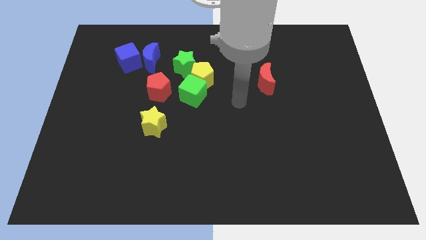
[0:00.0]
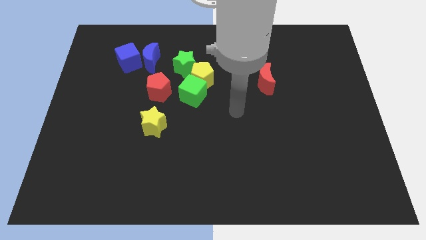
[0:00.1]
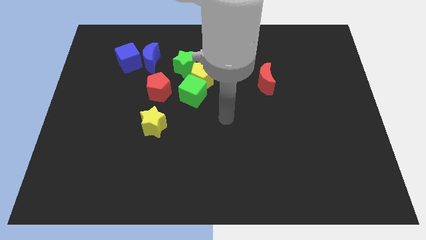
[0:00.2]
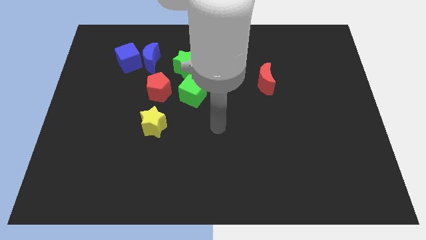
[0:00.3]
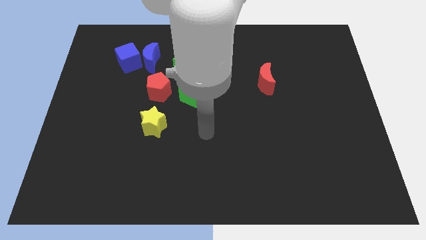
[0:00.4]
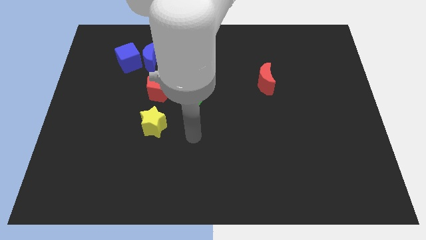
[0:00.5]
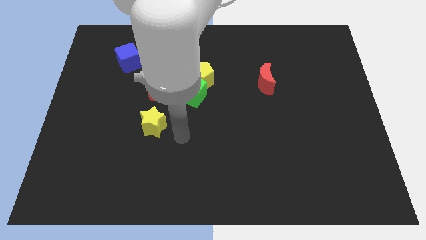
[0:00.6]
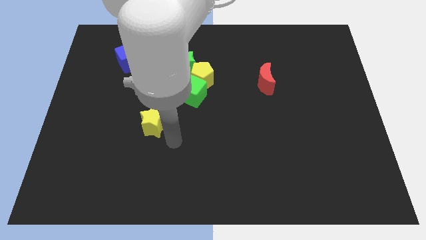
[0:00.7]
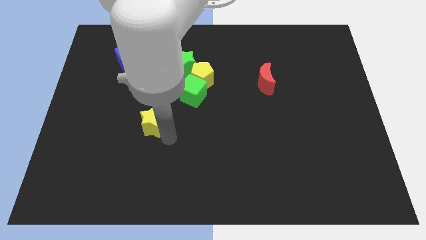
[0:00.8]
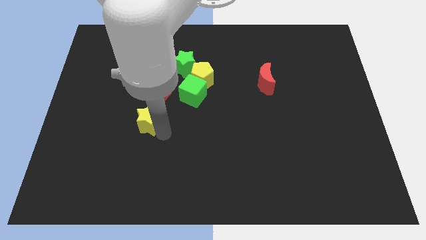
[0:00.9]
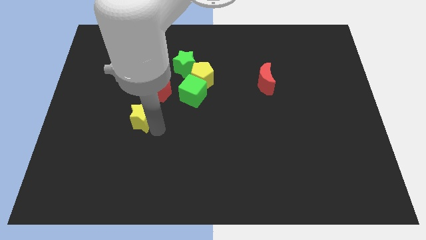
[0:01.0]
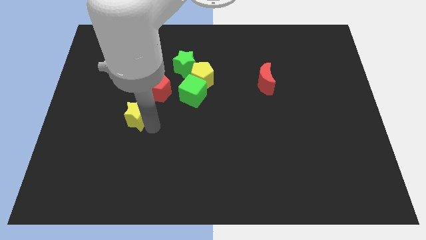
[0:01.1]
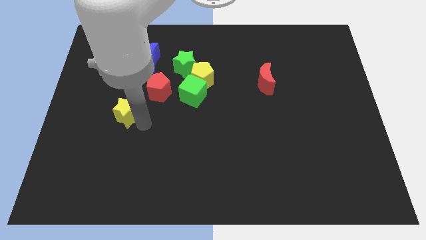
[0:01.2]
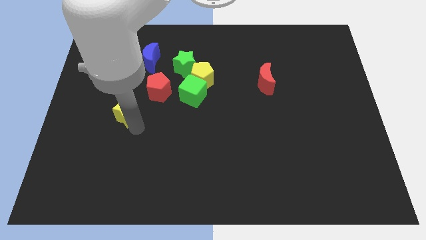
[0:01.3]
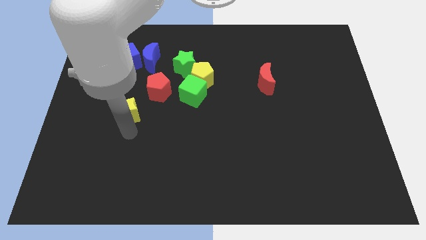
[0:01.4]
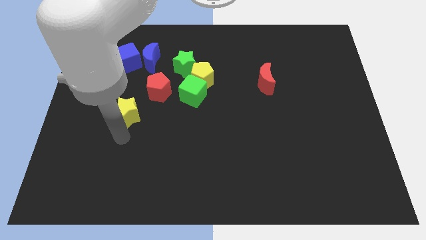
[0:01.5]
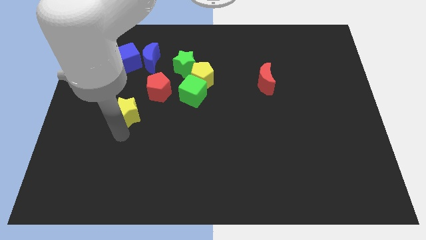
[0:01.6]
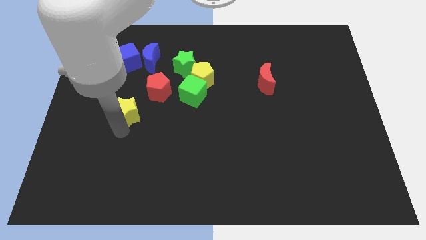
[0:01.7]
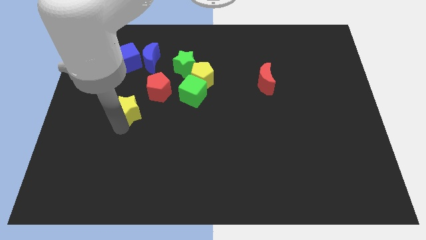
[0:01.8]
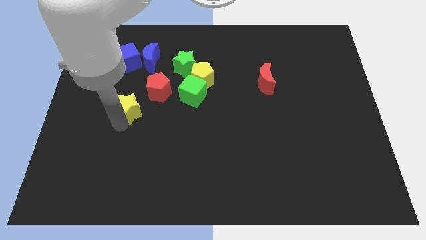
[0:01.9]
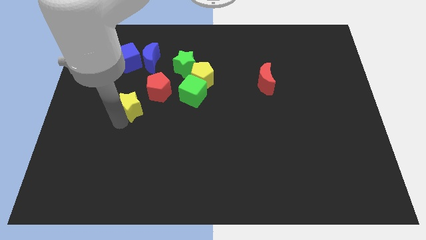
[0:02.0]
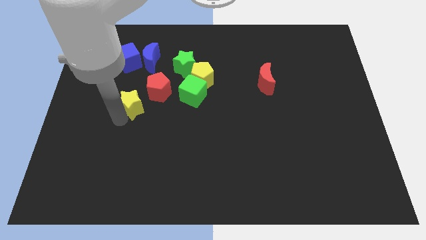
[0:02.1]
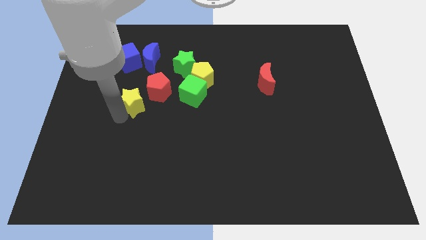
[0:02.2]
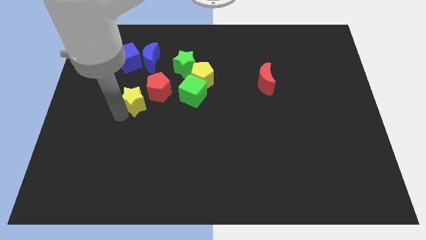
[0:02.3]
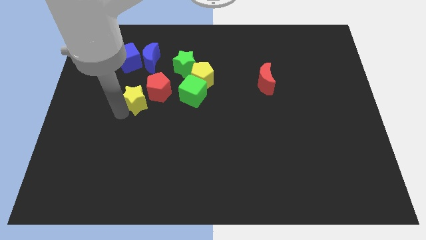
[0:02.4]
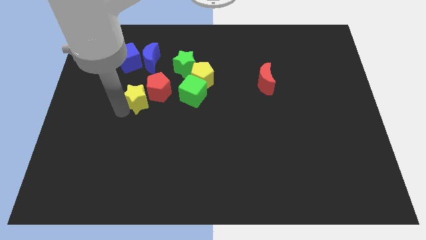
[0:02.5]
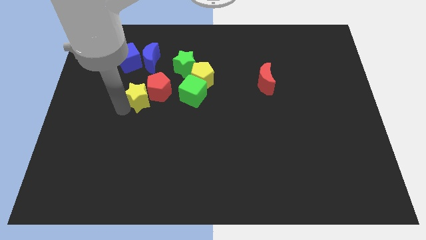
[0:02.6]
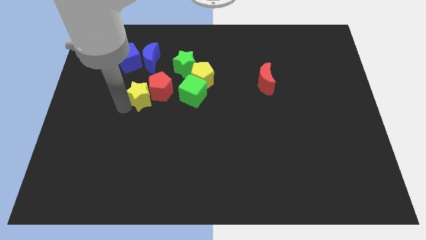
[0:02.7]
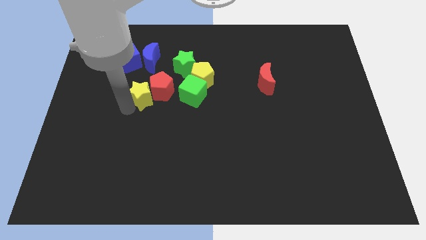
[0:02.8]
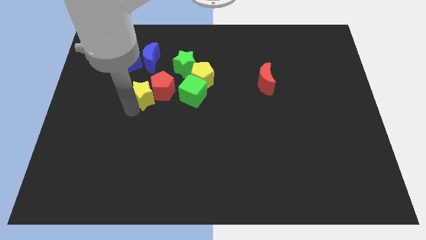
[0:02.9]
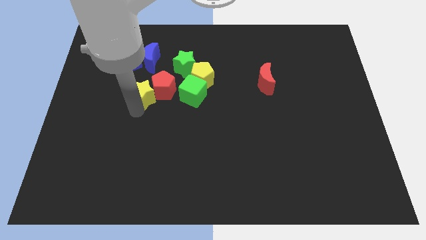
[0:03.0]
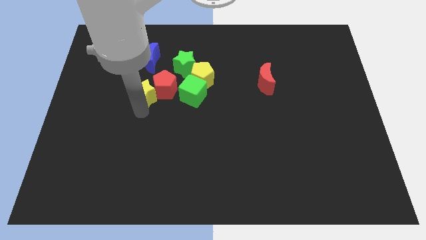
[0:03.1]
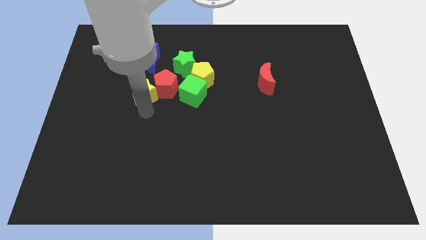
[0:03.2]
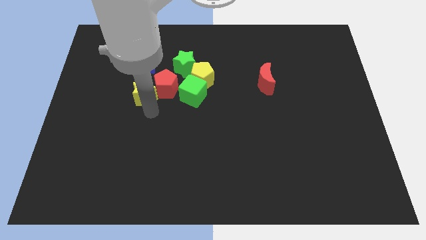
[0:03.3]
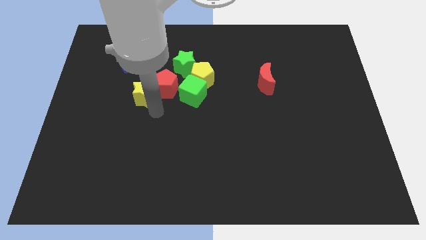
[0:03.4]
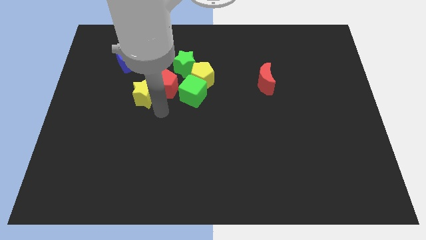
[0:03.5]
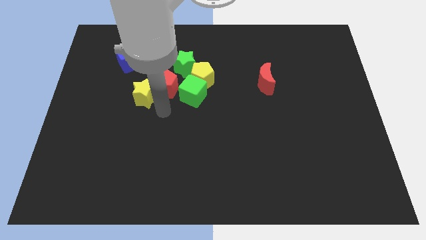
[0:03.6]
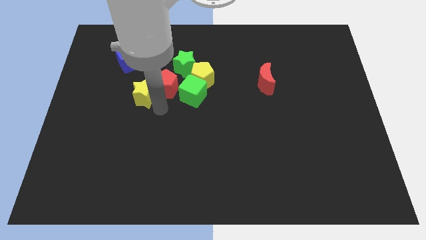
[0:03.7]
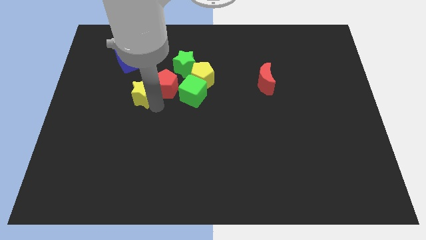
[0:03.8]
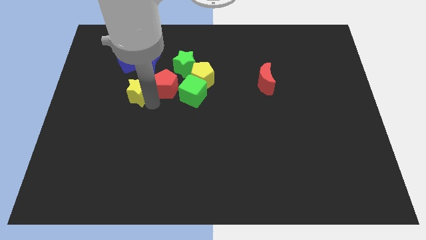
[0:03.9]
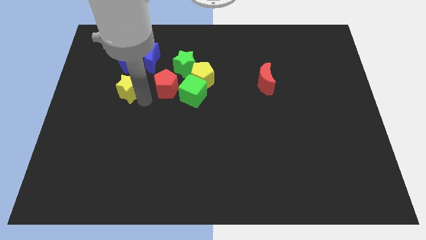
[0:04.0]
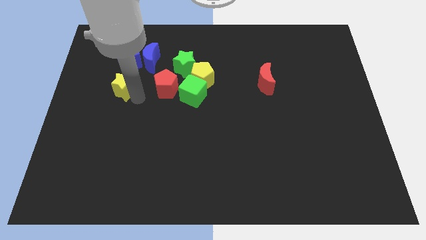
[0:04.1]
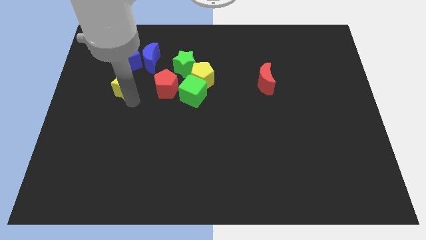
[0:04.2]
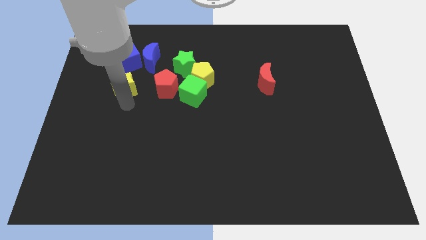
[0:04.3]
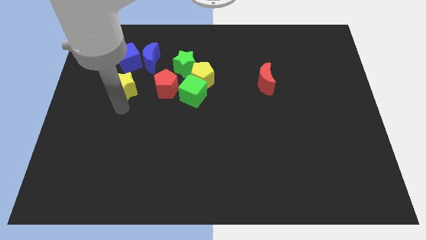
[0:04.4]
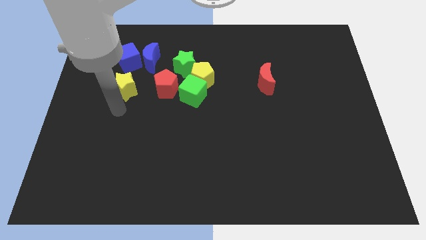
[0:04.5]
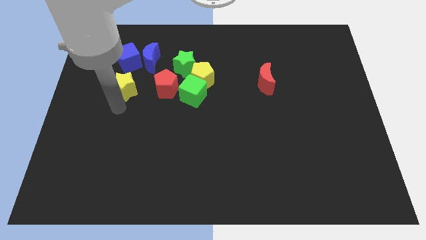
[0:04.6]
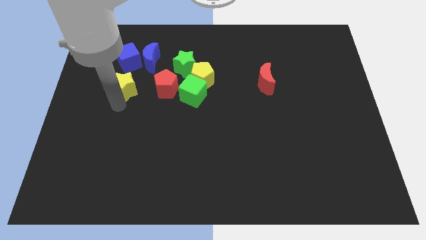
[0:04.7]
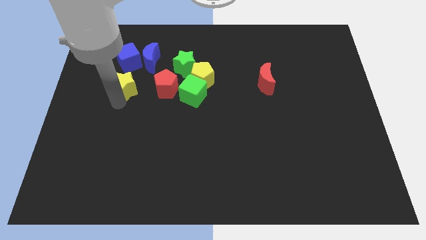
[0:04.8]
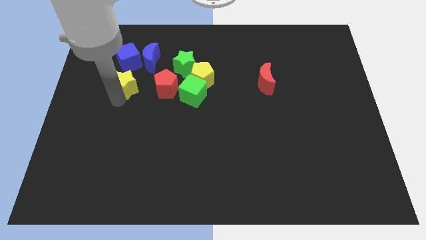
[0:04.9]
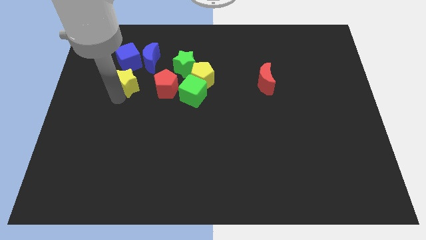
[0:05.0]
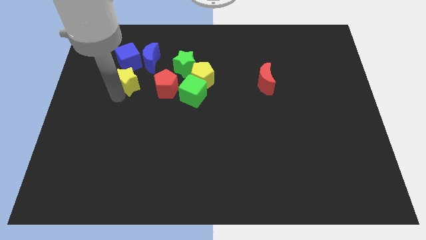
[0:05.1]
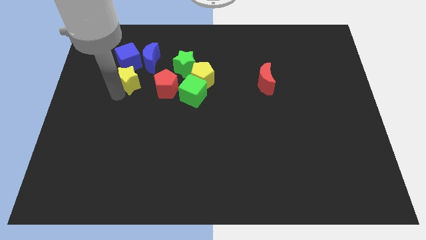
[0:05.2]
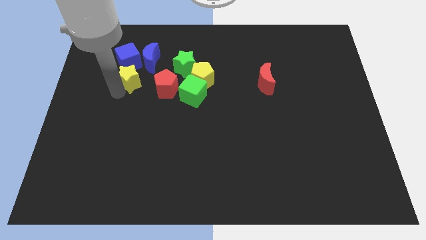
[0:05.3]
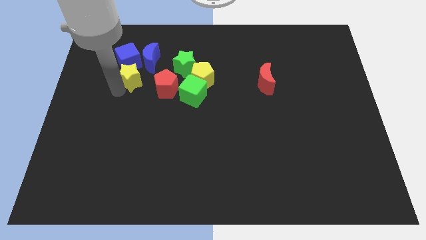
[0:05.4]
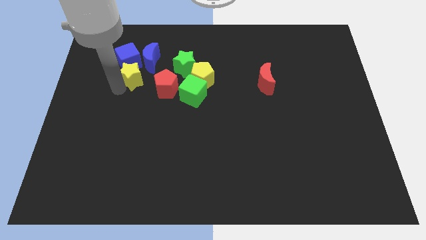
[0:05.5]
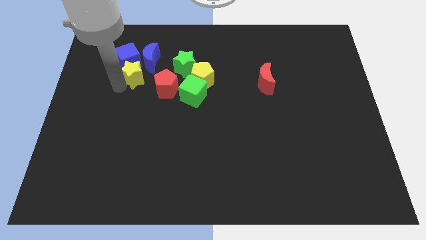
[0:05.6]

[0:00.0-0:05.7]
push the yellow star to the blue cube

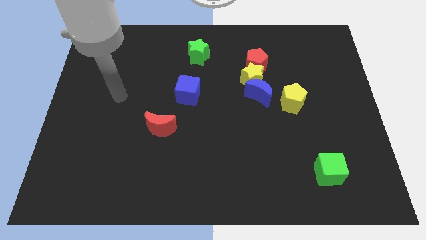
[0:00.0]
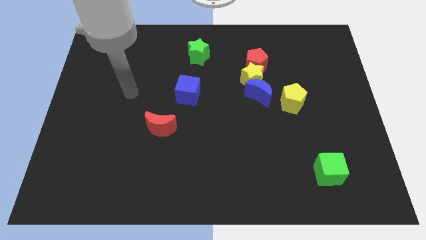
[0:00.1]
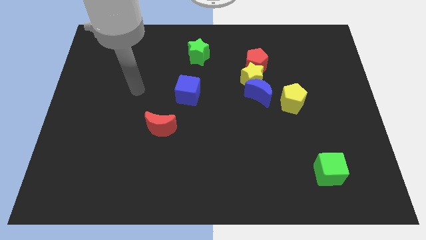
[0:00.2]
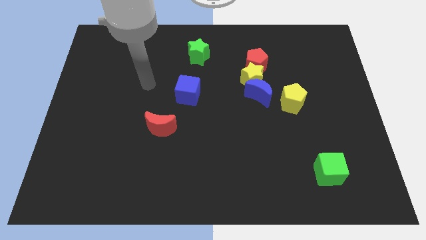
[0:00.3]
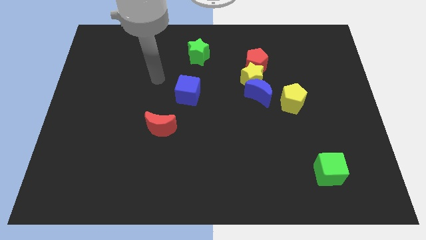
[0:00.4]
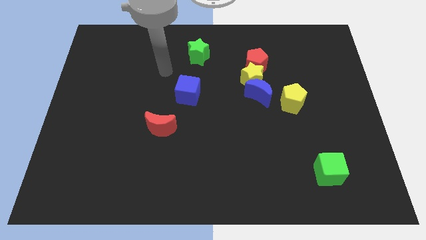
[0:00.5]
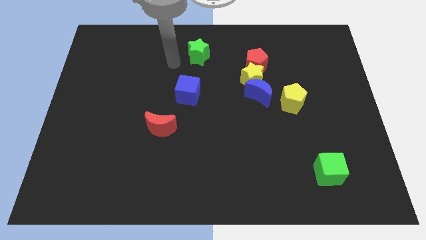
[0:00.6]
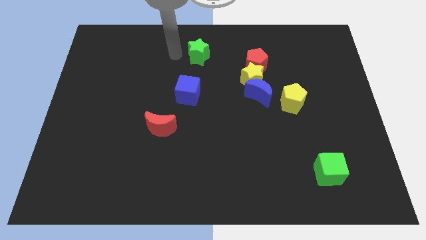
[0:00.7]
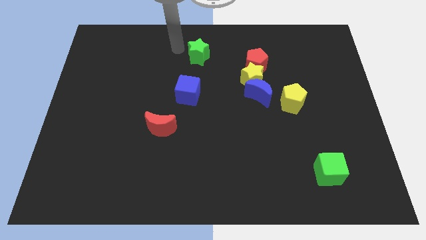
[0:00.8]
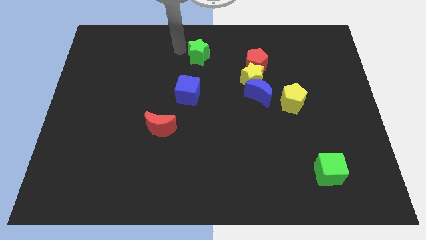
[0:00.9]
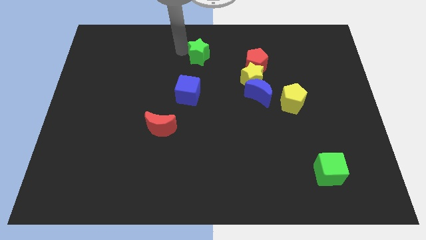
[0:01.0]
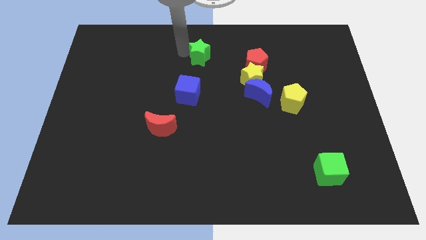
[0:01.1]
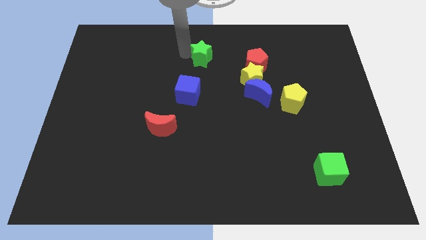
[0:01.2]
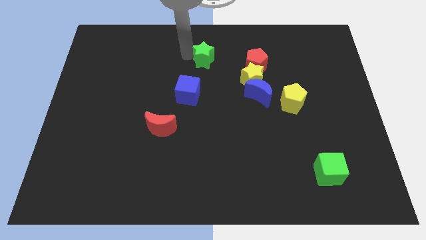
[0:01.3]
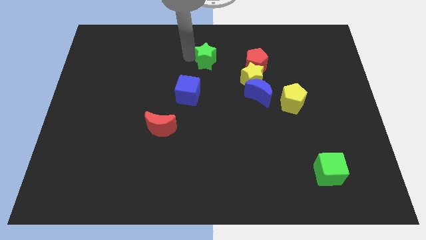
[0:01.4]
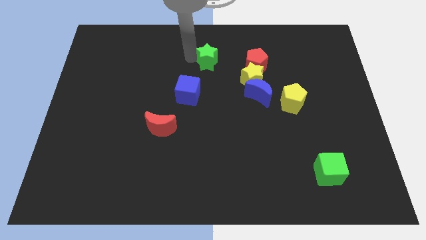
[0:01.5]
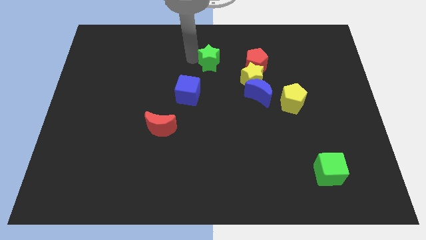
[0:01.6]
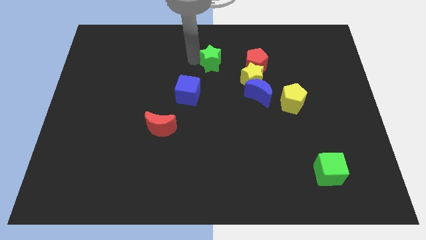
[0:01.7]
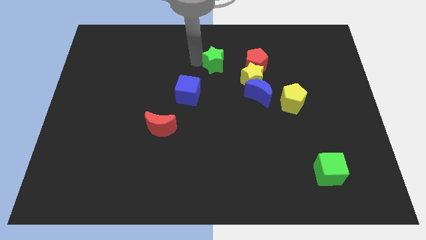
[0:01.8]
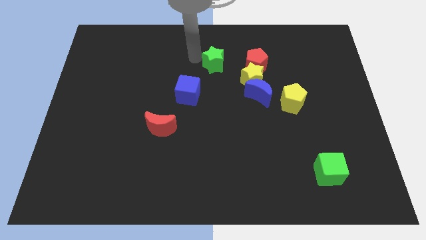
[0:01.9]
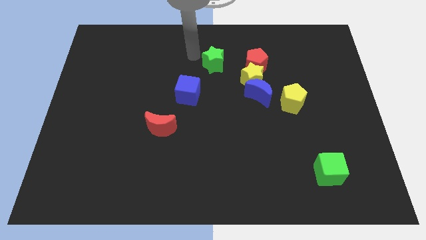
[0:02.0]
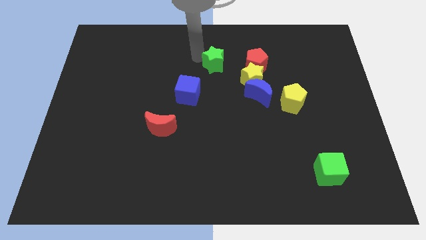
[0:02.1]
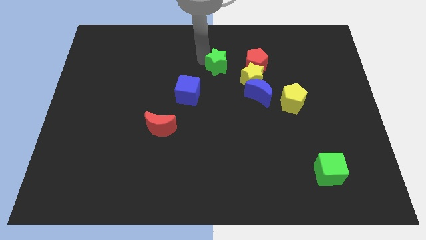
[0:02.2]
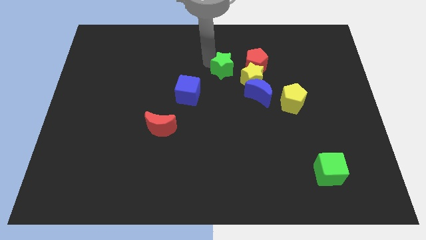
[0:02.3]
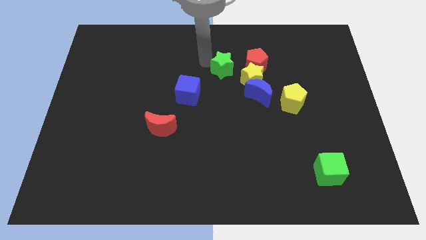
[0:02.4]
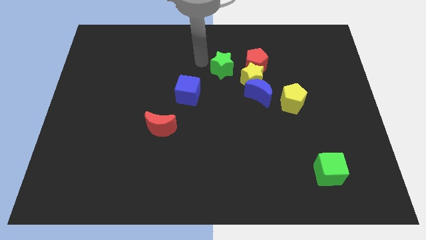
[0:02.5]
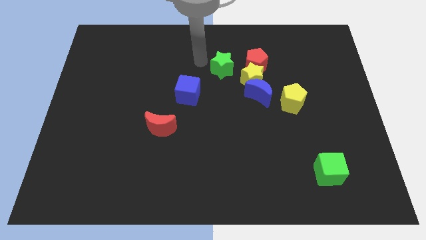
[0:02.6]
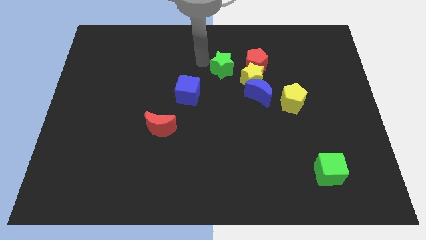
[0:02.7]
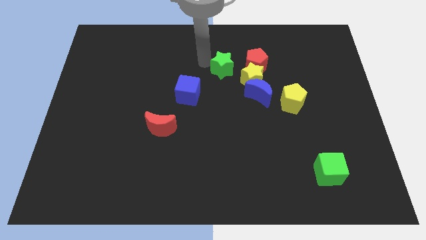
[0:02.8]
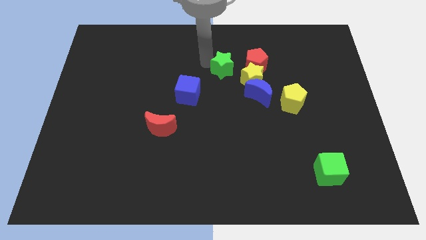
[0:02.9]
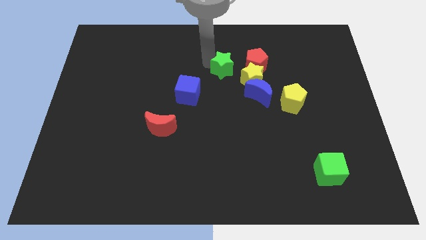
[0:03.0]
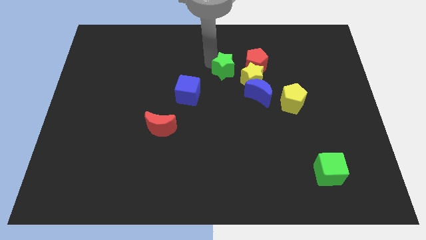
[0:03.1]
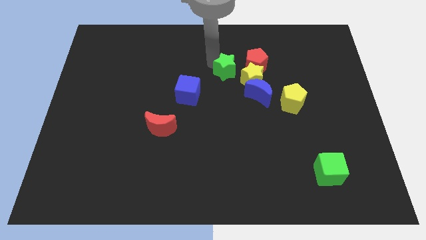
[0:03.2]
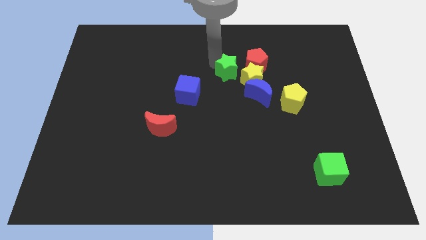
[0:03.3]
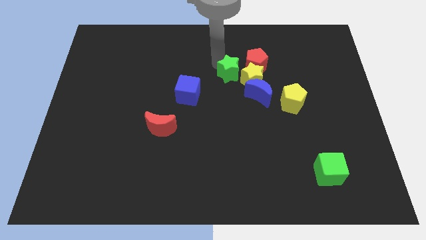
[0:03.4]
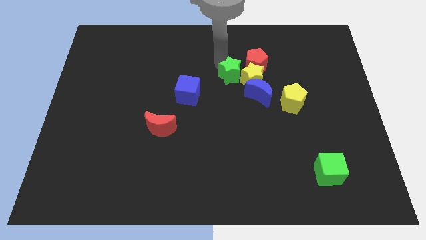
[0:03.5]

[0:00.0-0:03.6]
put the green star close to the yellow star
